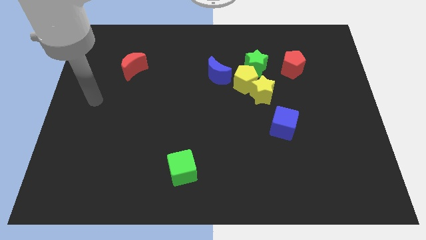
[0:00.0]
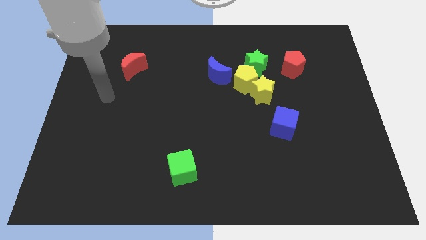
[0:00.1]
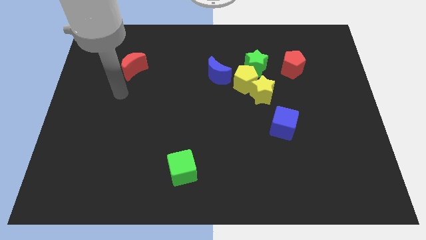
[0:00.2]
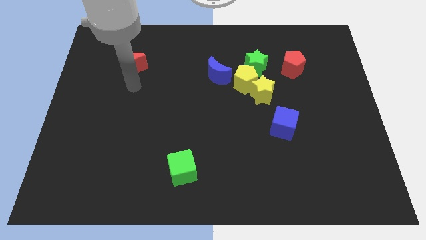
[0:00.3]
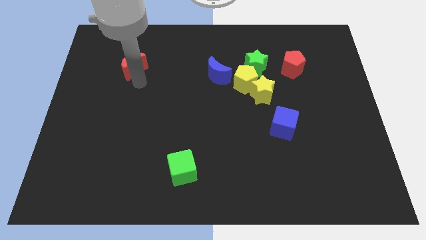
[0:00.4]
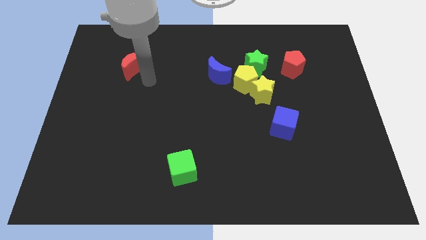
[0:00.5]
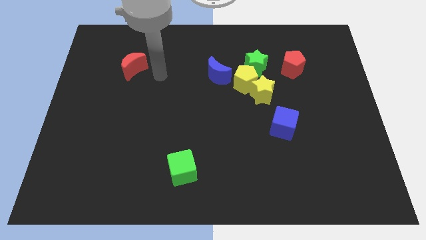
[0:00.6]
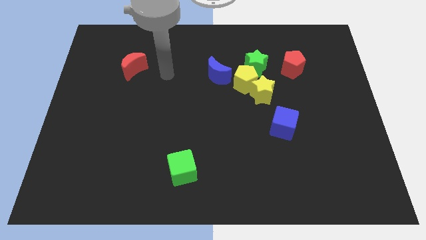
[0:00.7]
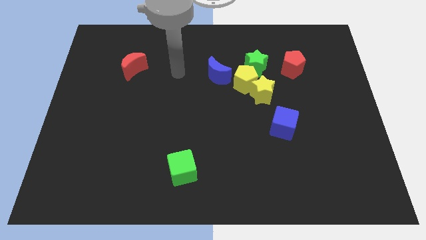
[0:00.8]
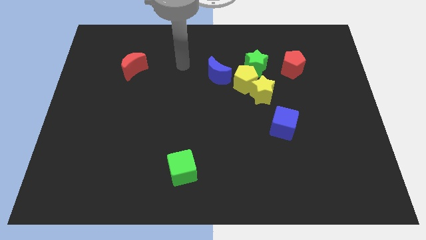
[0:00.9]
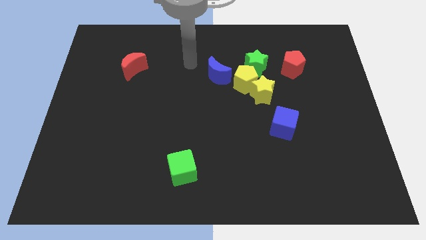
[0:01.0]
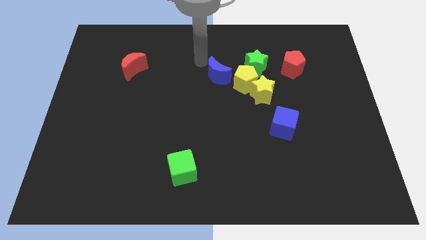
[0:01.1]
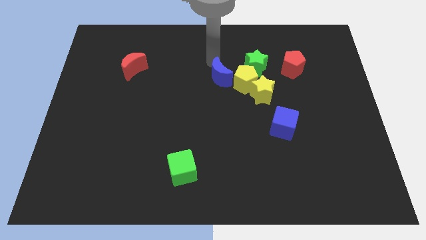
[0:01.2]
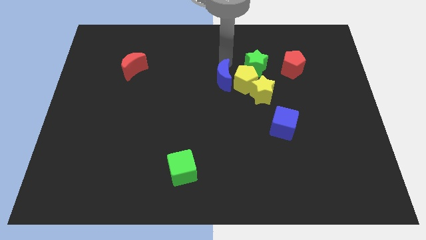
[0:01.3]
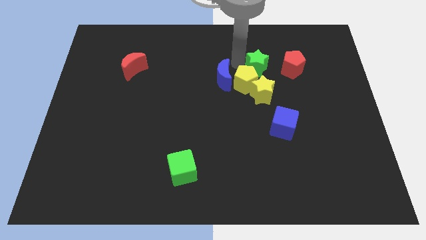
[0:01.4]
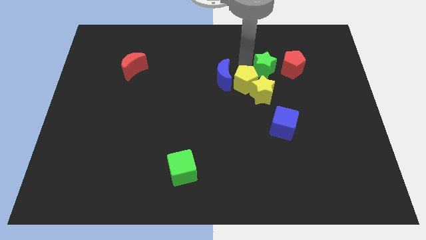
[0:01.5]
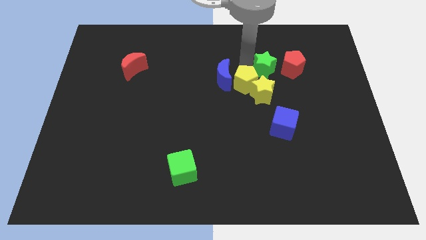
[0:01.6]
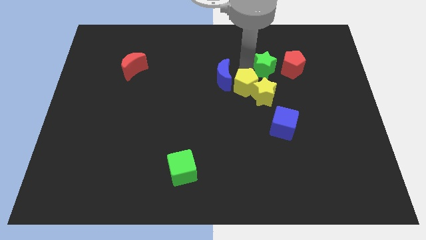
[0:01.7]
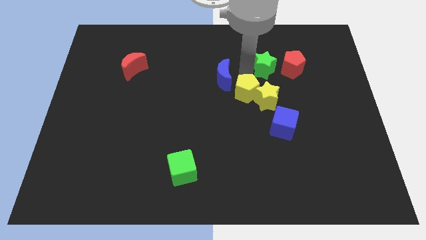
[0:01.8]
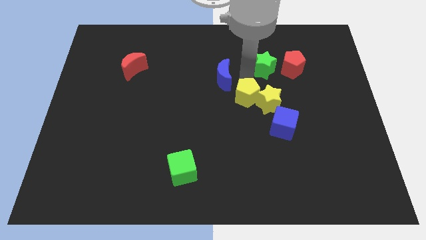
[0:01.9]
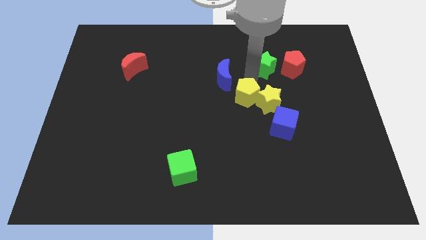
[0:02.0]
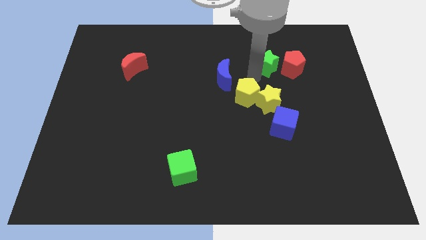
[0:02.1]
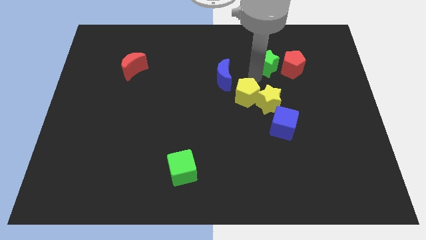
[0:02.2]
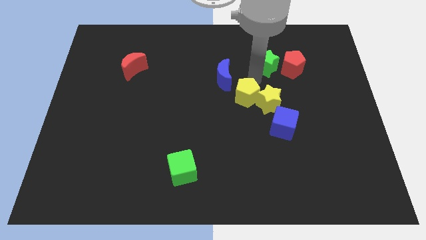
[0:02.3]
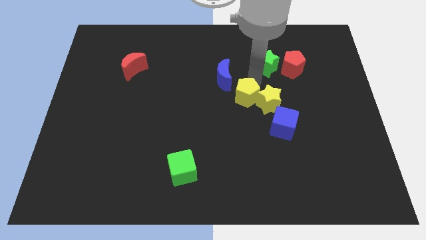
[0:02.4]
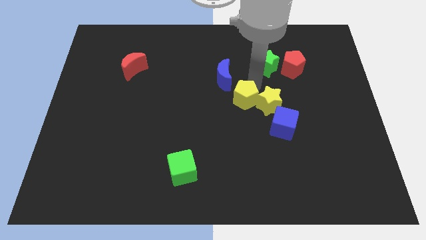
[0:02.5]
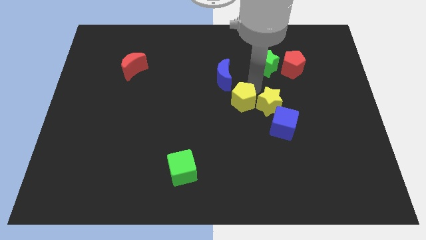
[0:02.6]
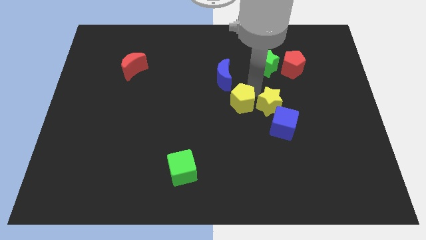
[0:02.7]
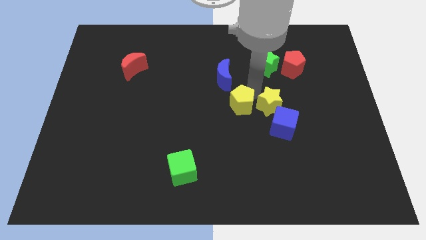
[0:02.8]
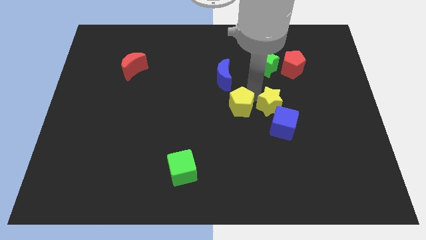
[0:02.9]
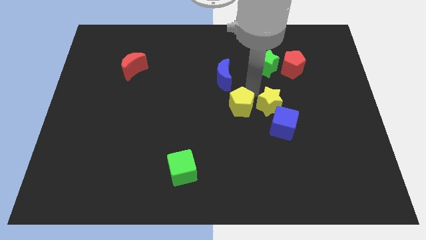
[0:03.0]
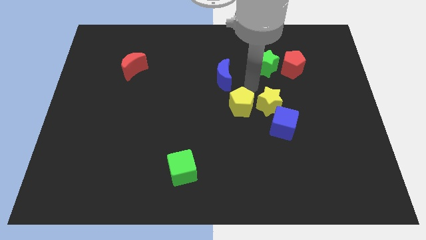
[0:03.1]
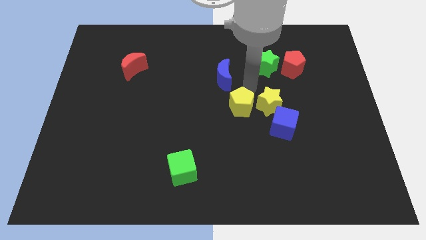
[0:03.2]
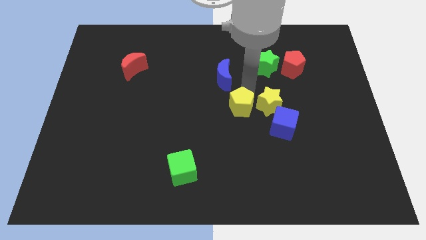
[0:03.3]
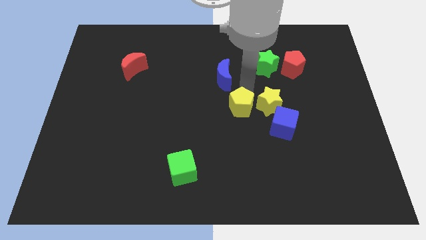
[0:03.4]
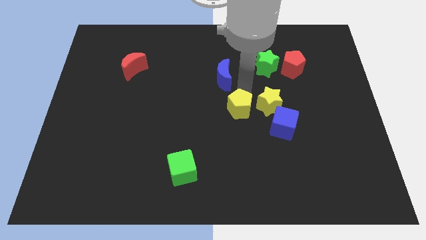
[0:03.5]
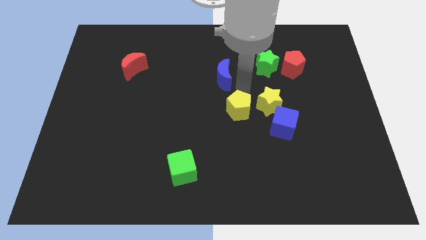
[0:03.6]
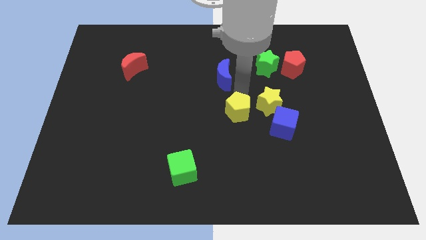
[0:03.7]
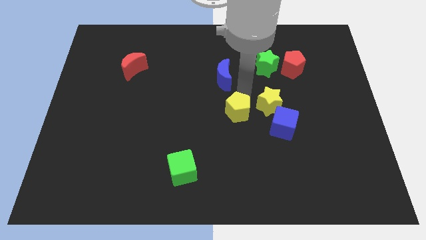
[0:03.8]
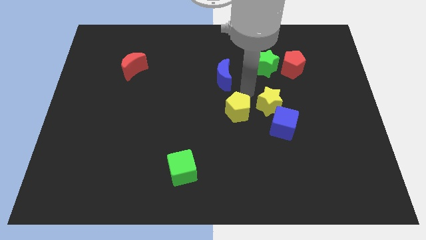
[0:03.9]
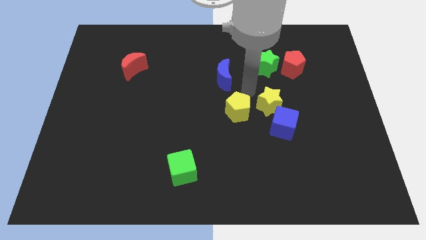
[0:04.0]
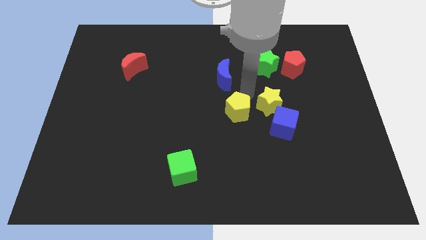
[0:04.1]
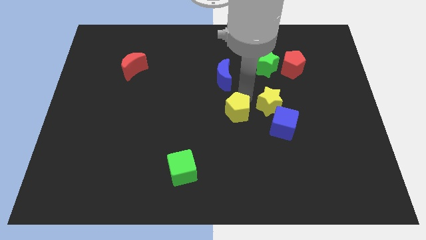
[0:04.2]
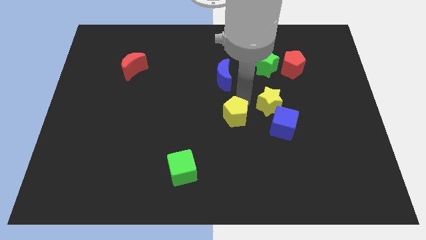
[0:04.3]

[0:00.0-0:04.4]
pull the yellow pentagon apart from the group

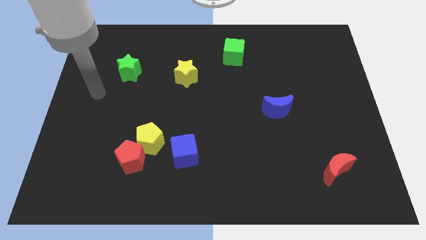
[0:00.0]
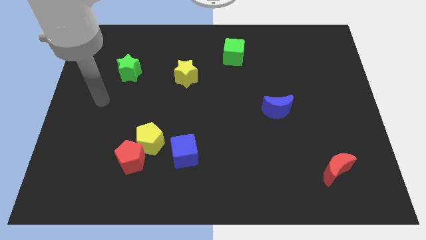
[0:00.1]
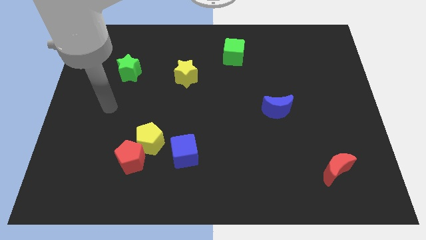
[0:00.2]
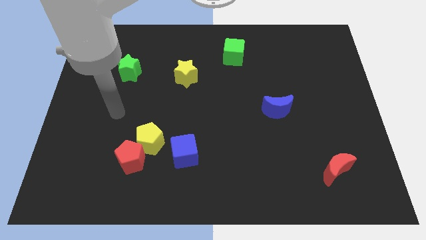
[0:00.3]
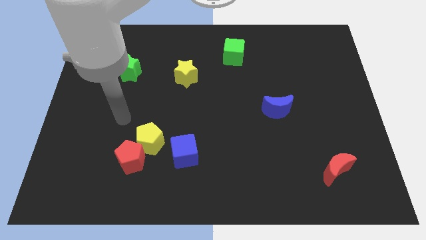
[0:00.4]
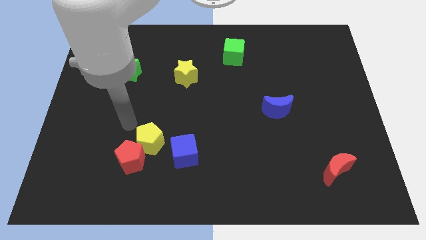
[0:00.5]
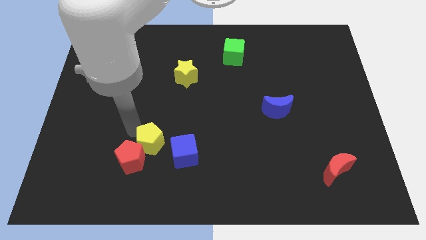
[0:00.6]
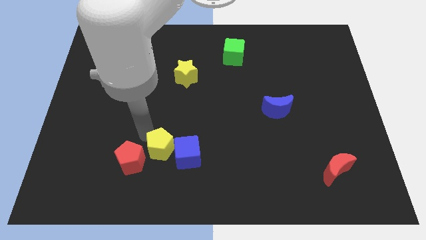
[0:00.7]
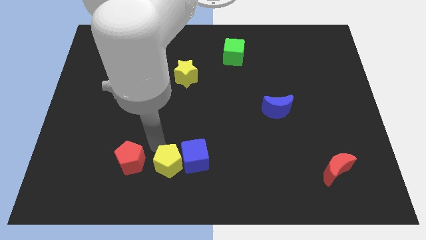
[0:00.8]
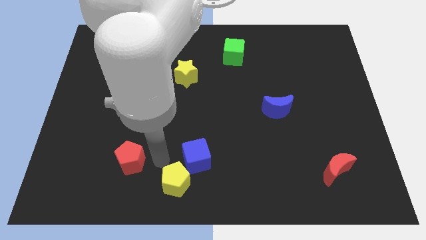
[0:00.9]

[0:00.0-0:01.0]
separate the red pentagon from the yellow pentagon

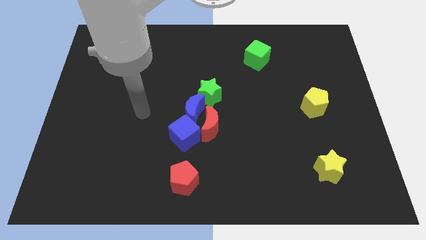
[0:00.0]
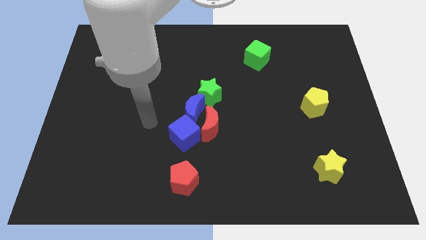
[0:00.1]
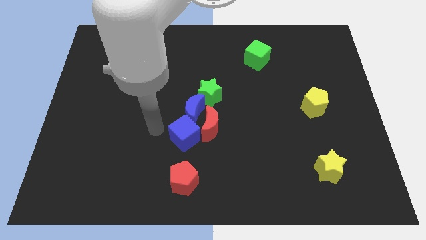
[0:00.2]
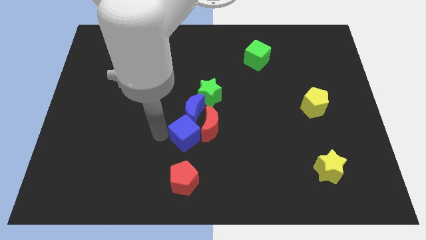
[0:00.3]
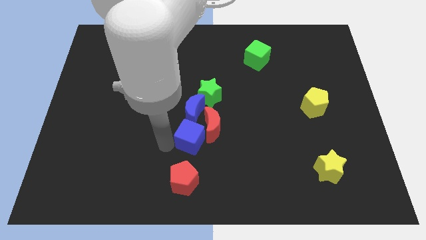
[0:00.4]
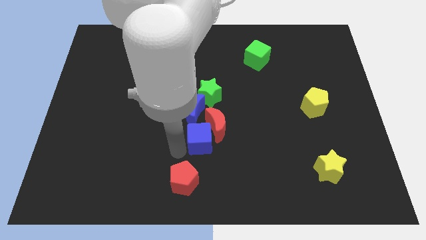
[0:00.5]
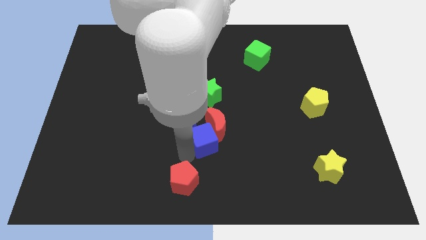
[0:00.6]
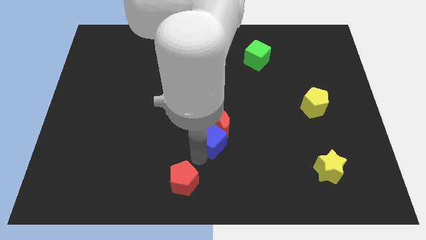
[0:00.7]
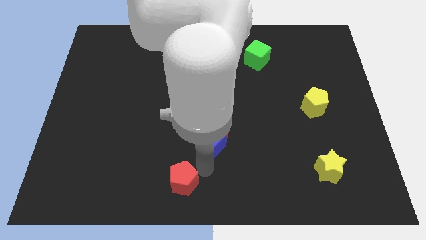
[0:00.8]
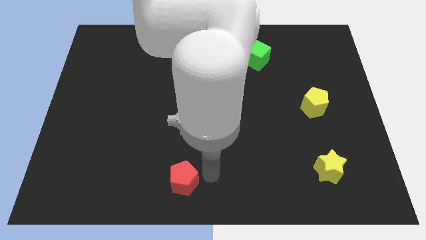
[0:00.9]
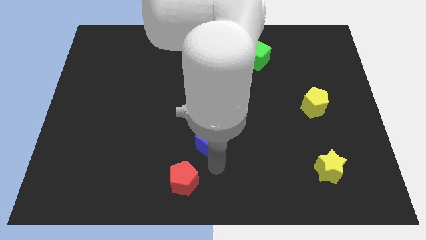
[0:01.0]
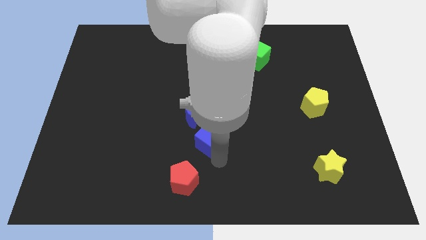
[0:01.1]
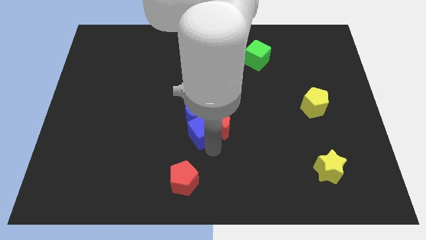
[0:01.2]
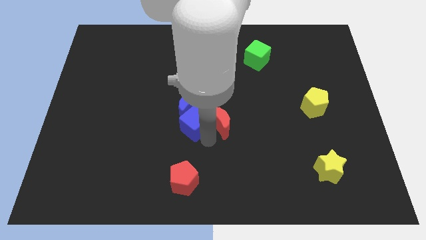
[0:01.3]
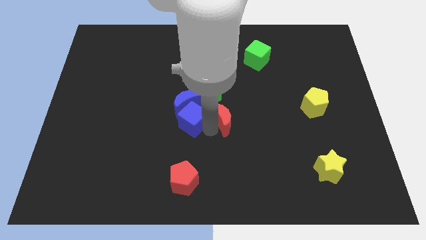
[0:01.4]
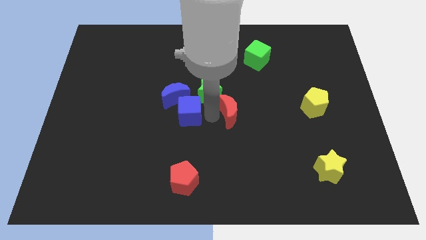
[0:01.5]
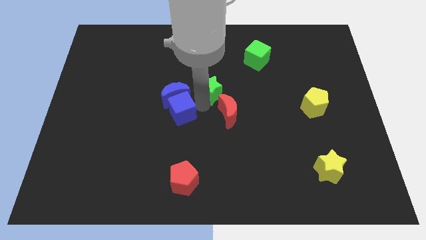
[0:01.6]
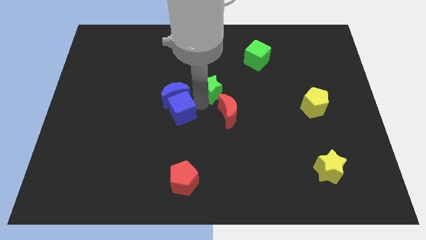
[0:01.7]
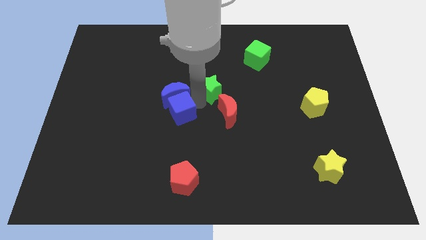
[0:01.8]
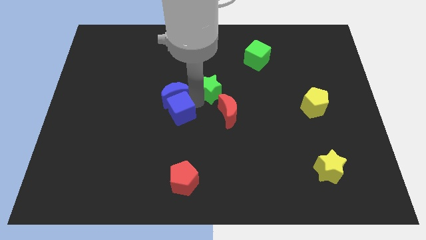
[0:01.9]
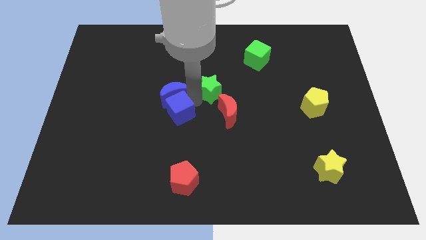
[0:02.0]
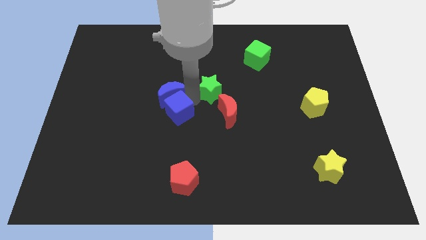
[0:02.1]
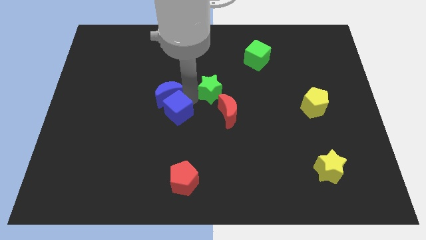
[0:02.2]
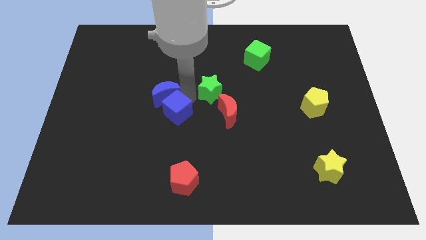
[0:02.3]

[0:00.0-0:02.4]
move the blue moon away from the red moon, green star, and blue cube

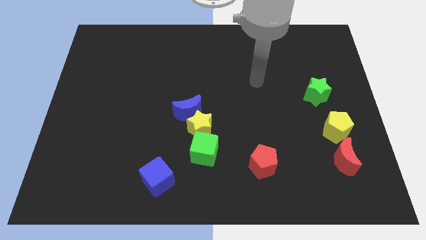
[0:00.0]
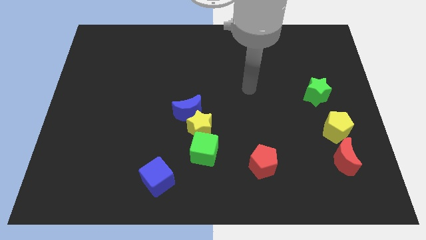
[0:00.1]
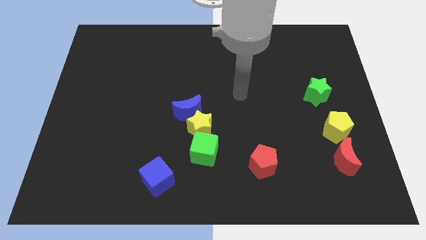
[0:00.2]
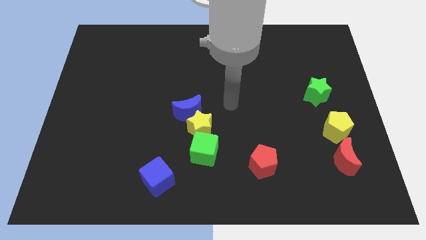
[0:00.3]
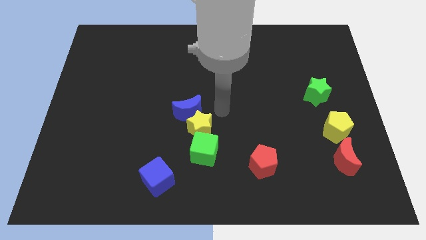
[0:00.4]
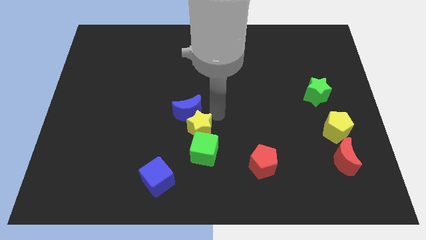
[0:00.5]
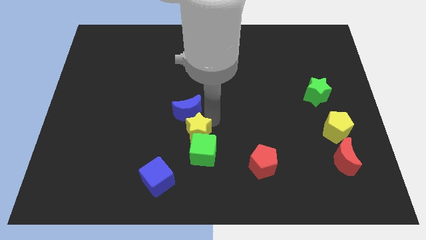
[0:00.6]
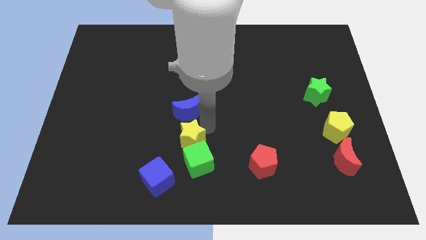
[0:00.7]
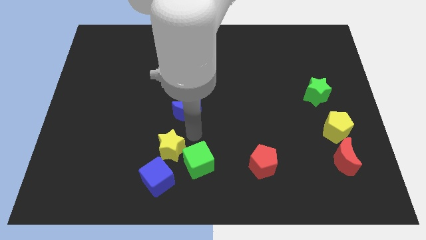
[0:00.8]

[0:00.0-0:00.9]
move the blue moon away from the yellow star

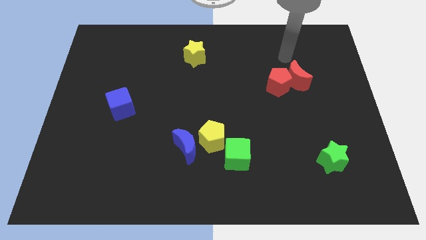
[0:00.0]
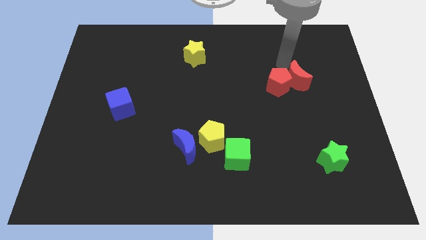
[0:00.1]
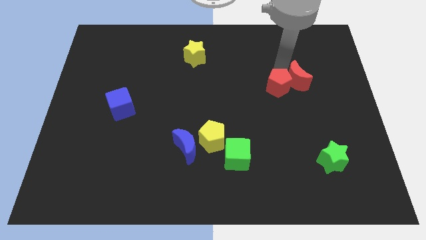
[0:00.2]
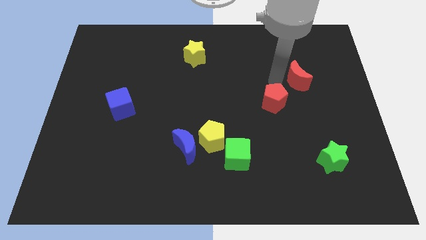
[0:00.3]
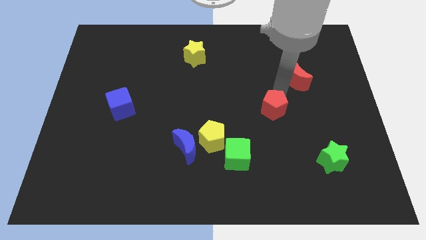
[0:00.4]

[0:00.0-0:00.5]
separate the red moon from the red pentagon

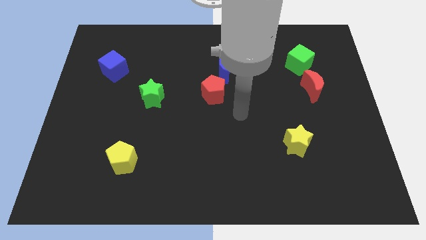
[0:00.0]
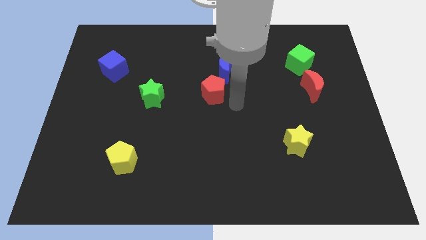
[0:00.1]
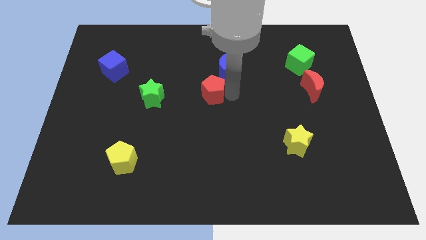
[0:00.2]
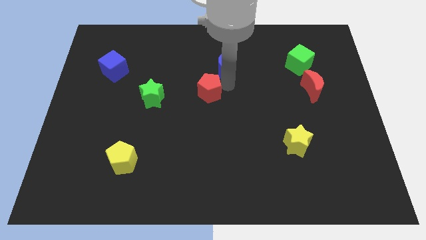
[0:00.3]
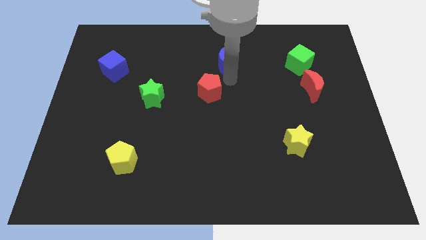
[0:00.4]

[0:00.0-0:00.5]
move the red pentagon away from the blue moon
